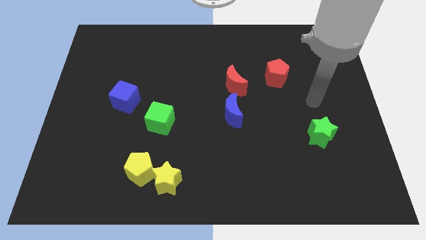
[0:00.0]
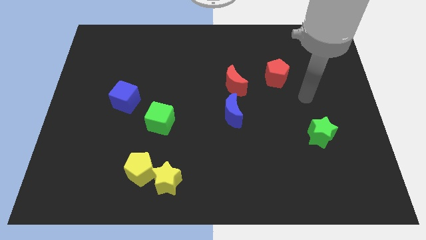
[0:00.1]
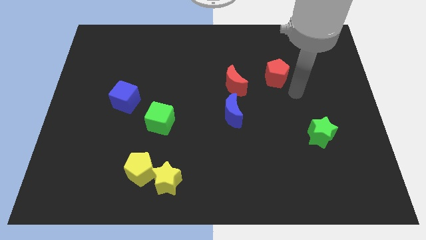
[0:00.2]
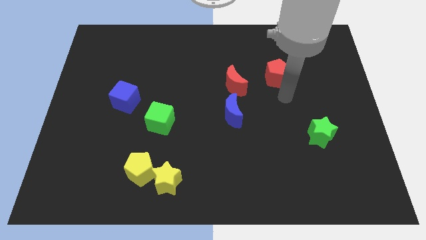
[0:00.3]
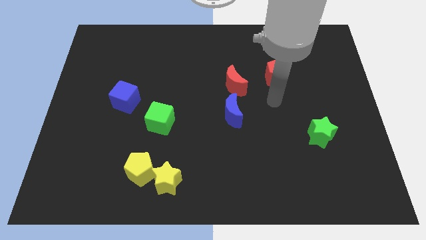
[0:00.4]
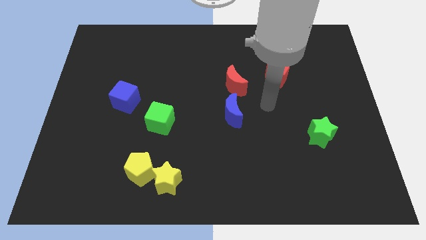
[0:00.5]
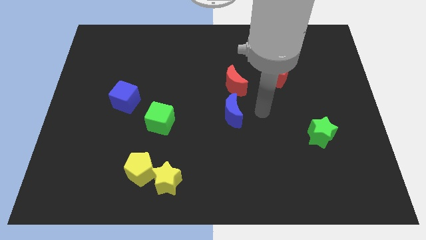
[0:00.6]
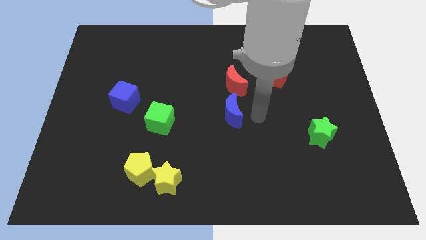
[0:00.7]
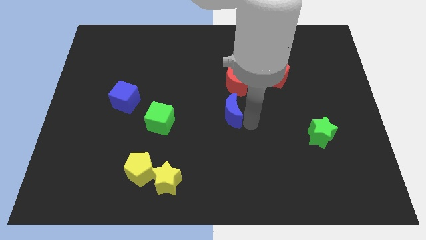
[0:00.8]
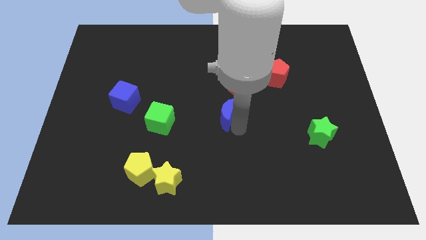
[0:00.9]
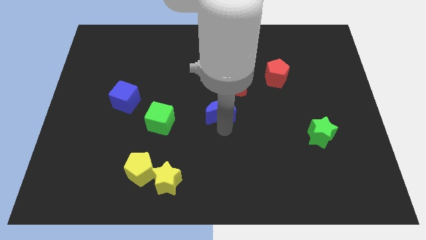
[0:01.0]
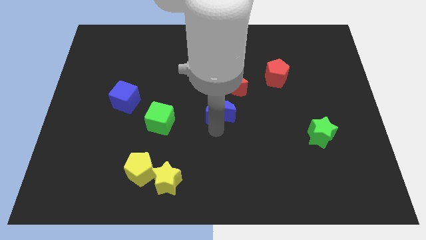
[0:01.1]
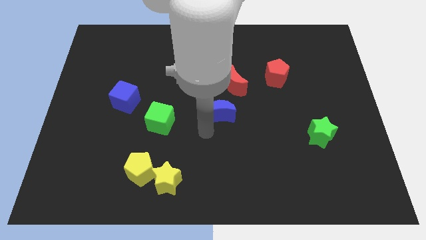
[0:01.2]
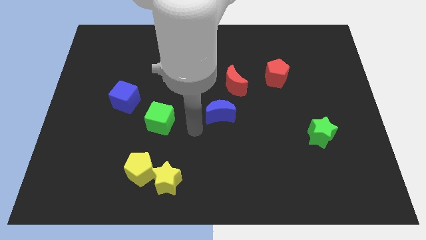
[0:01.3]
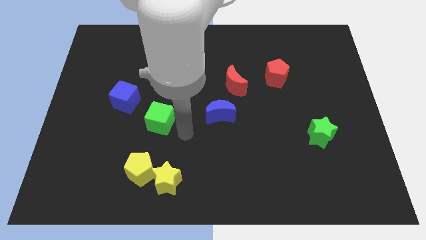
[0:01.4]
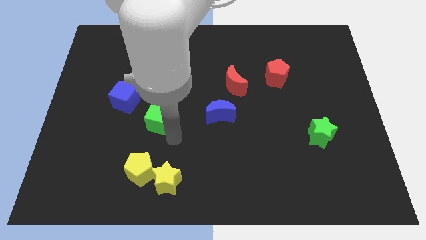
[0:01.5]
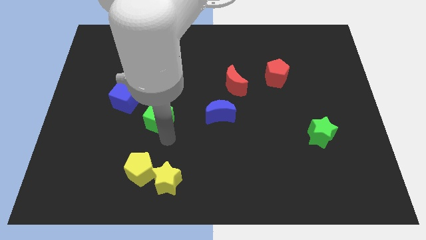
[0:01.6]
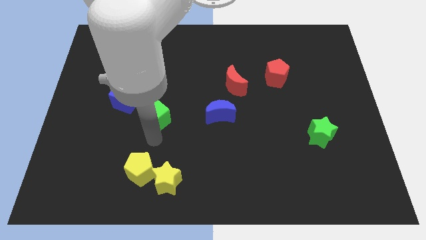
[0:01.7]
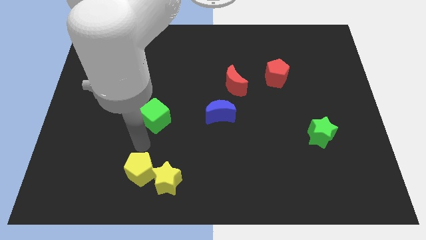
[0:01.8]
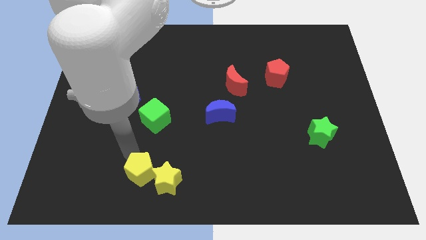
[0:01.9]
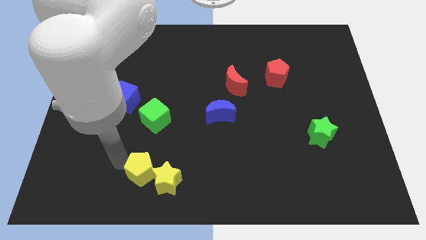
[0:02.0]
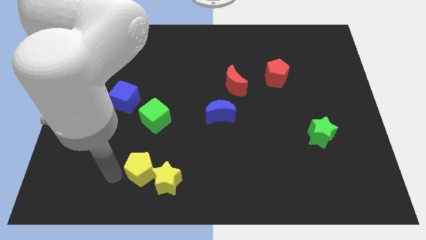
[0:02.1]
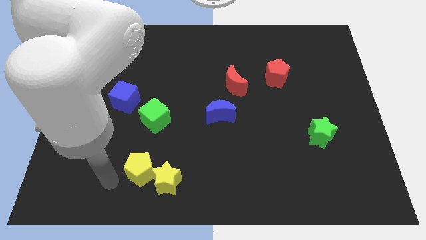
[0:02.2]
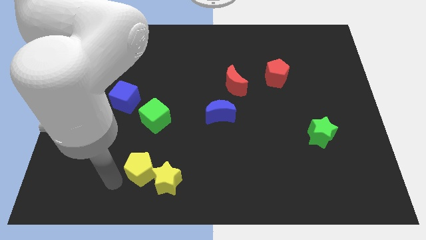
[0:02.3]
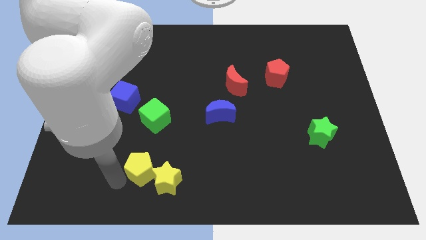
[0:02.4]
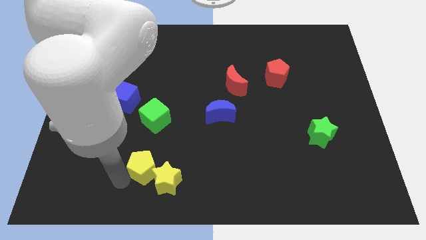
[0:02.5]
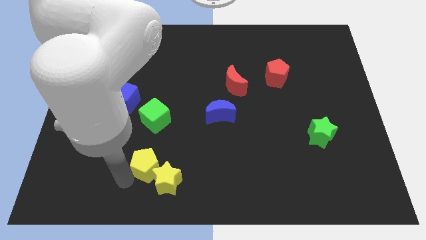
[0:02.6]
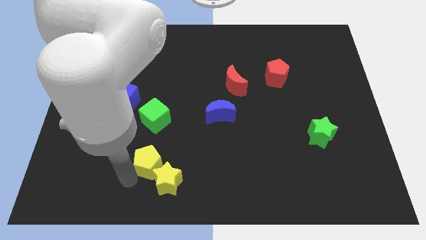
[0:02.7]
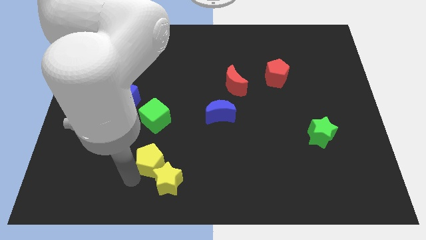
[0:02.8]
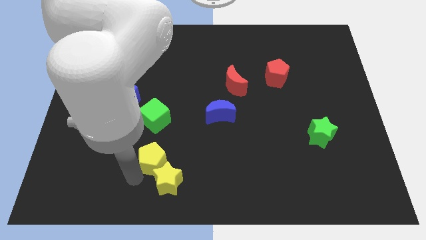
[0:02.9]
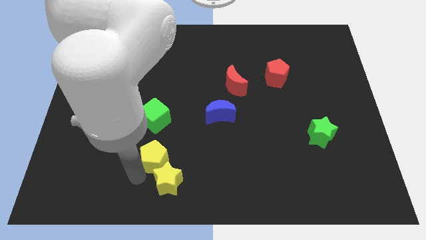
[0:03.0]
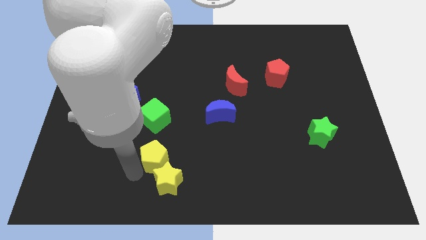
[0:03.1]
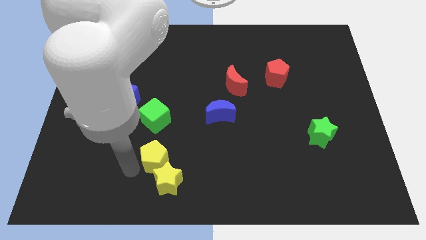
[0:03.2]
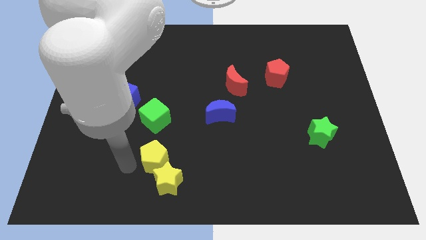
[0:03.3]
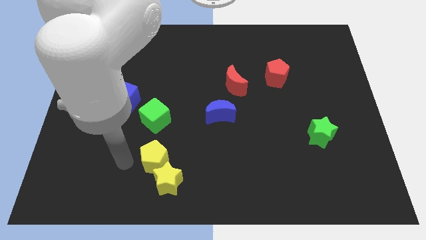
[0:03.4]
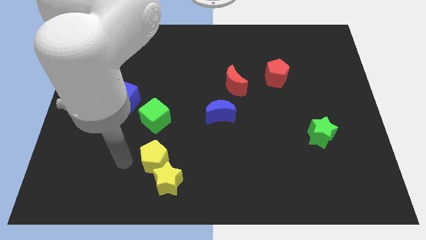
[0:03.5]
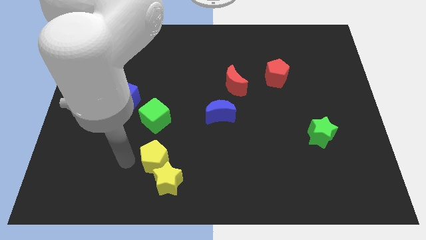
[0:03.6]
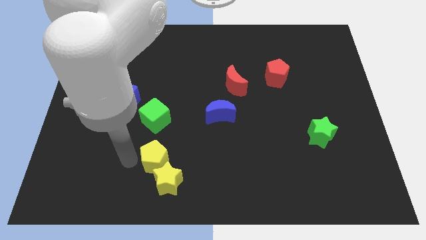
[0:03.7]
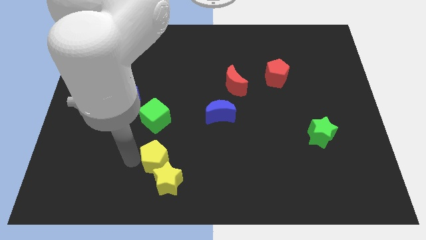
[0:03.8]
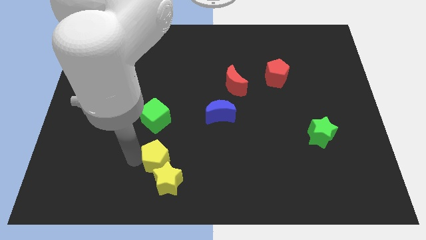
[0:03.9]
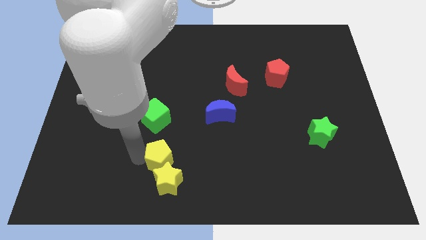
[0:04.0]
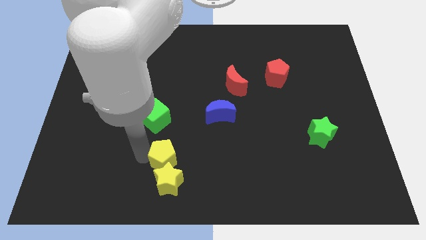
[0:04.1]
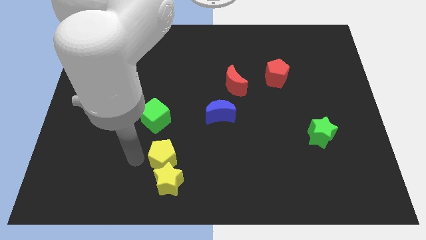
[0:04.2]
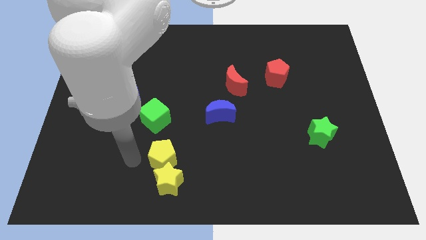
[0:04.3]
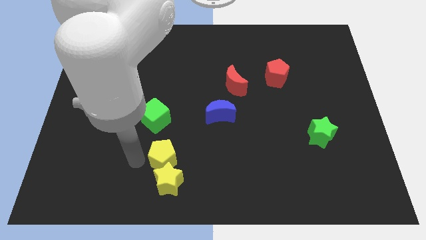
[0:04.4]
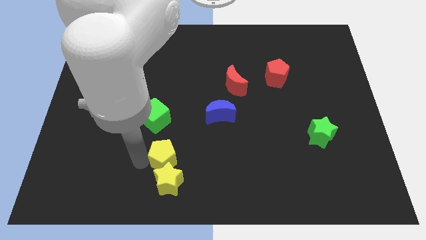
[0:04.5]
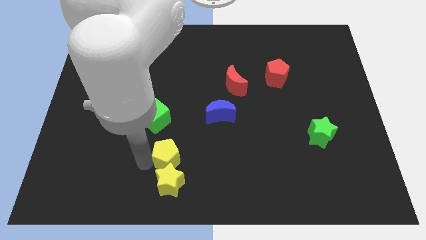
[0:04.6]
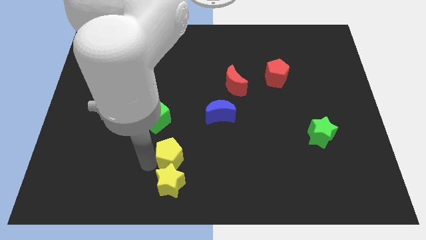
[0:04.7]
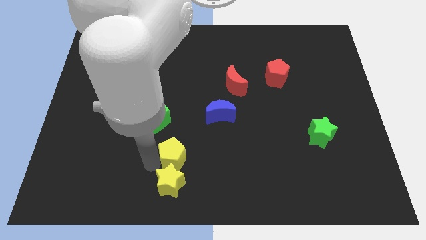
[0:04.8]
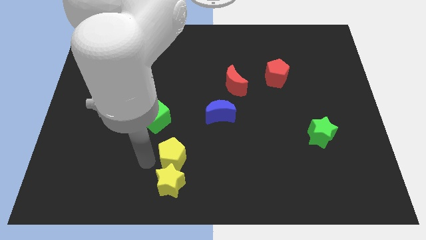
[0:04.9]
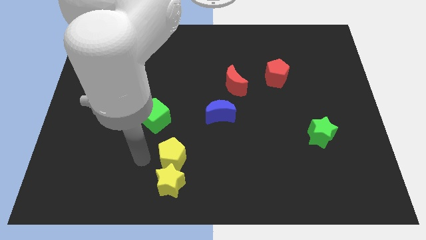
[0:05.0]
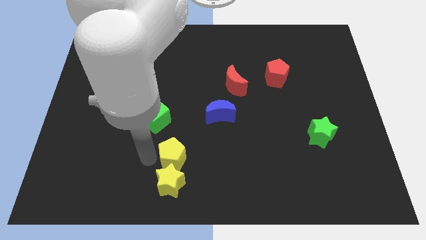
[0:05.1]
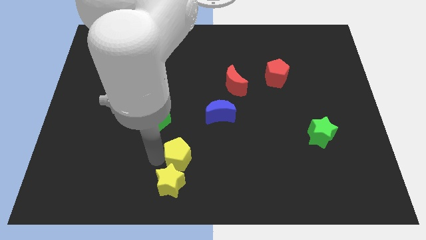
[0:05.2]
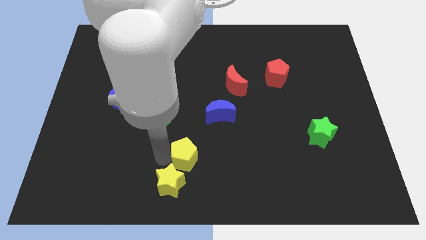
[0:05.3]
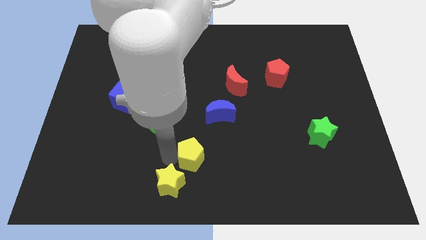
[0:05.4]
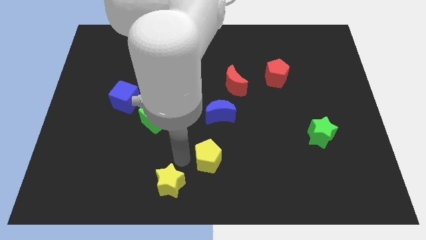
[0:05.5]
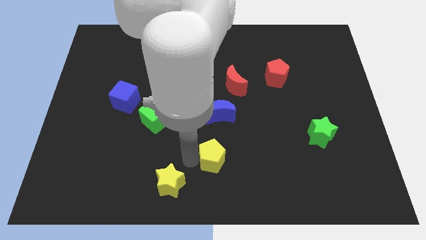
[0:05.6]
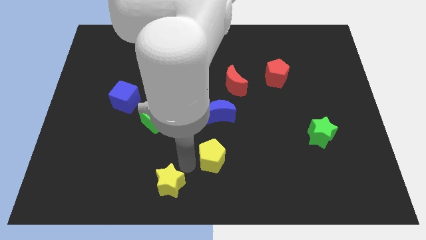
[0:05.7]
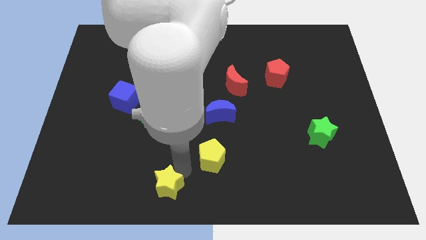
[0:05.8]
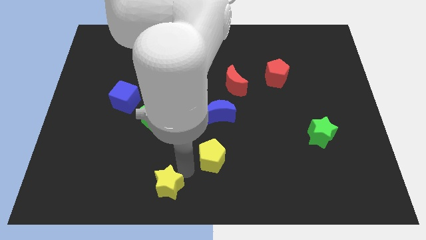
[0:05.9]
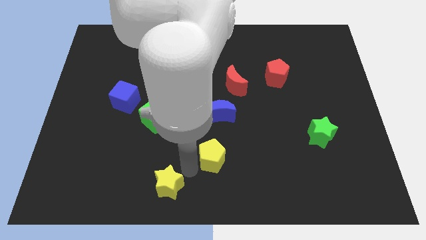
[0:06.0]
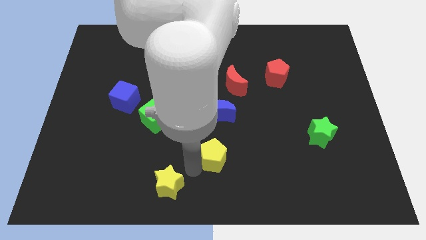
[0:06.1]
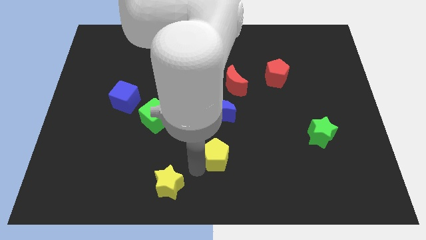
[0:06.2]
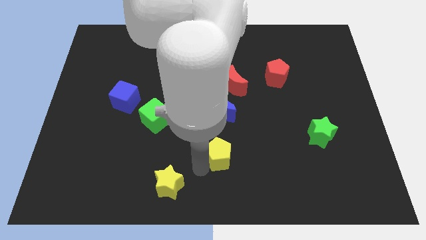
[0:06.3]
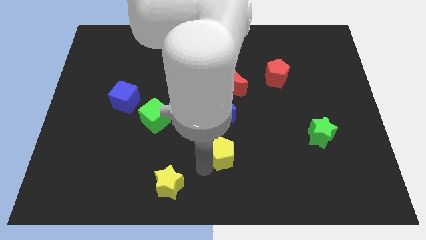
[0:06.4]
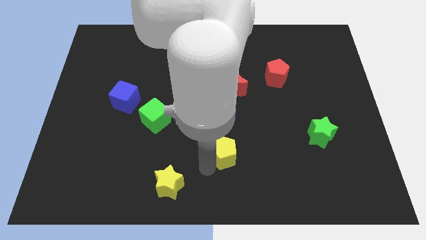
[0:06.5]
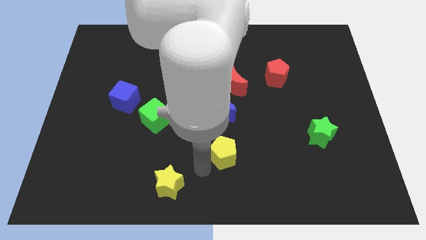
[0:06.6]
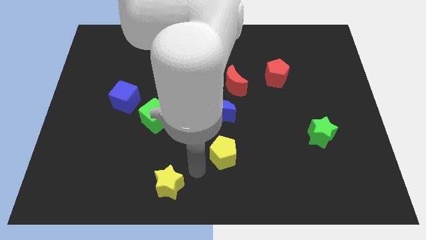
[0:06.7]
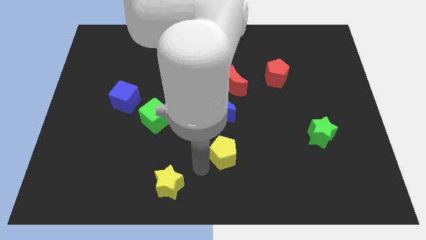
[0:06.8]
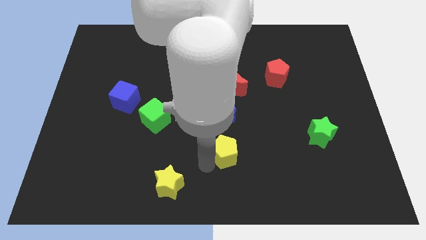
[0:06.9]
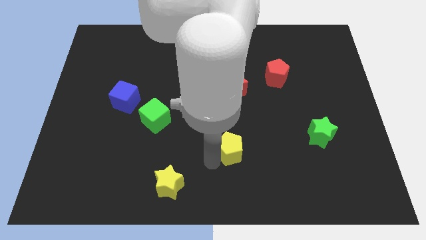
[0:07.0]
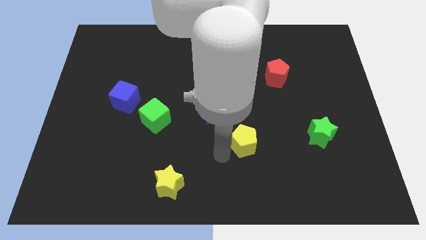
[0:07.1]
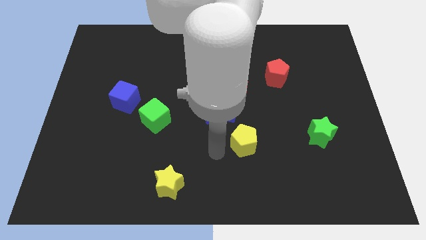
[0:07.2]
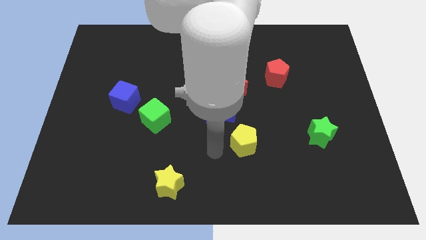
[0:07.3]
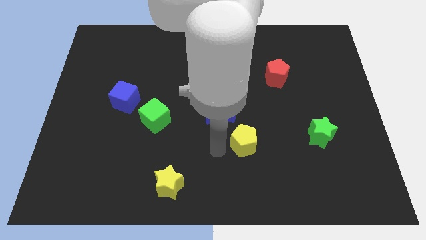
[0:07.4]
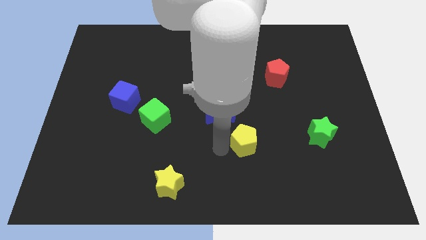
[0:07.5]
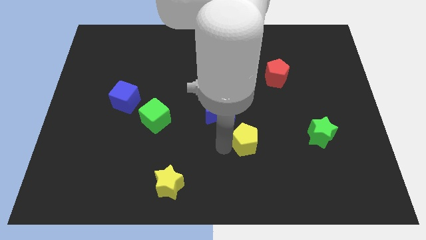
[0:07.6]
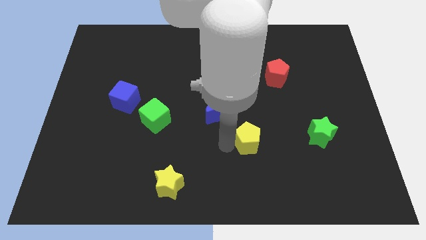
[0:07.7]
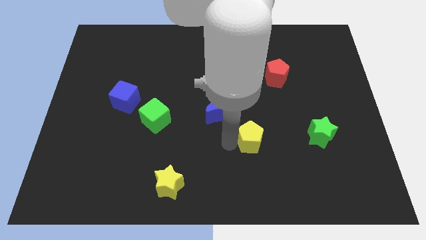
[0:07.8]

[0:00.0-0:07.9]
put the yellow pentagon to the left side of the green star
